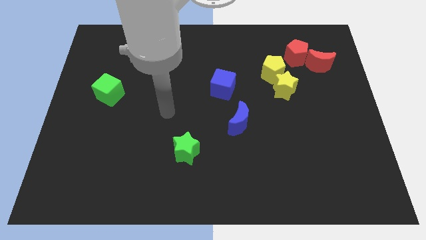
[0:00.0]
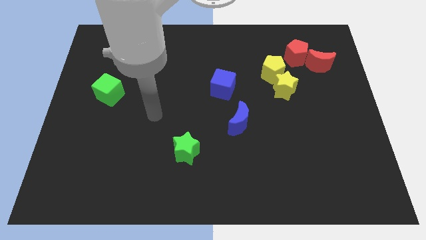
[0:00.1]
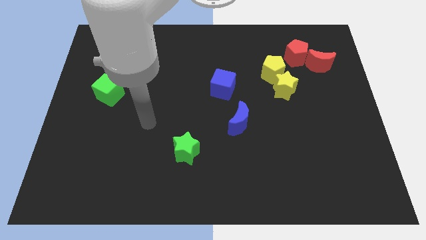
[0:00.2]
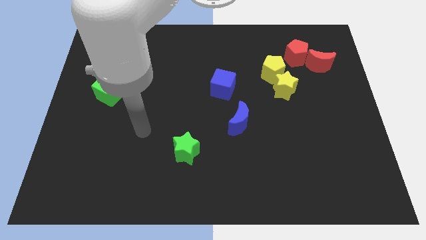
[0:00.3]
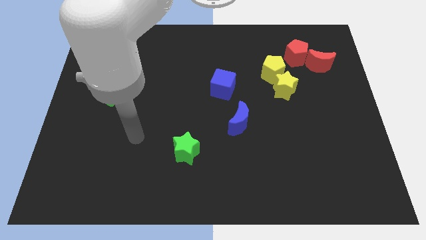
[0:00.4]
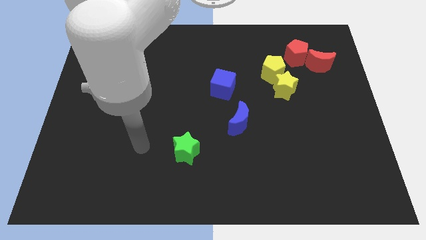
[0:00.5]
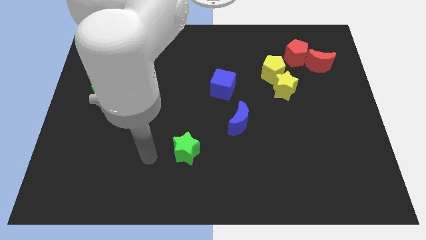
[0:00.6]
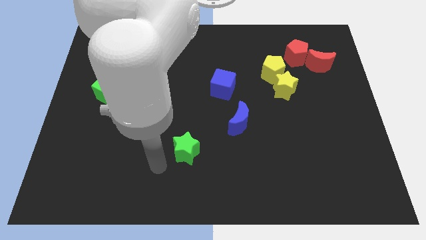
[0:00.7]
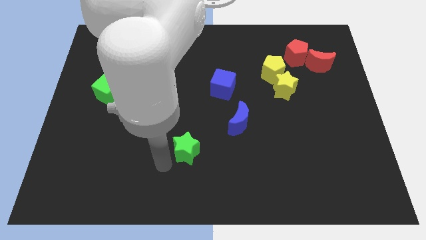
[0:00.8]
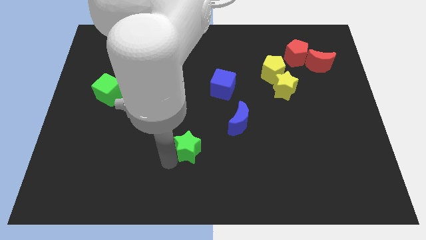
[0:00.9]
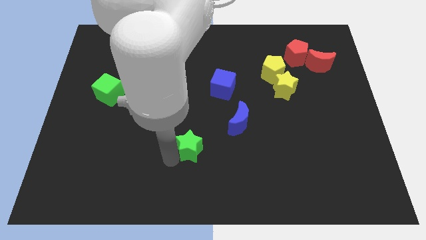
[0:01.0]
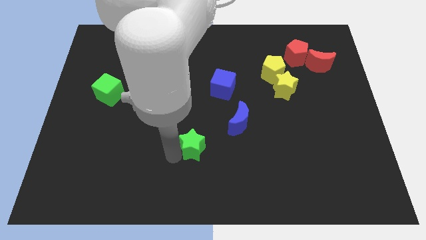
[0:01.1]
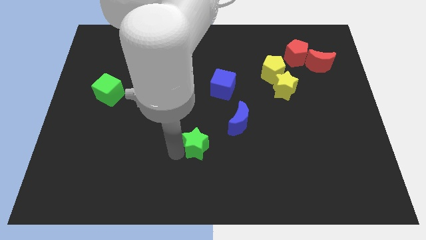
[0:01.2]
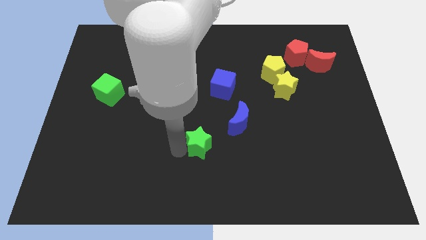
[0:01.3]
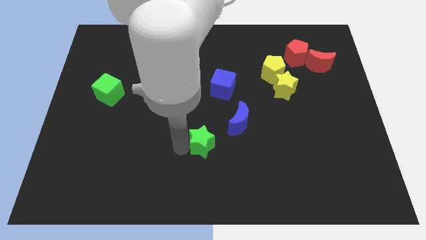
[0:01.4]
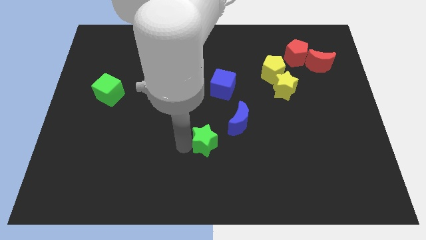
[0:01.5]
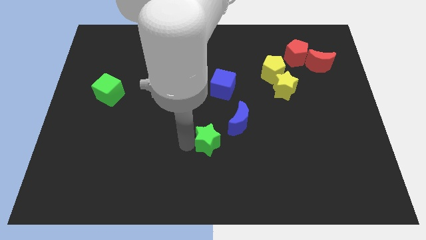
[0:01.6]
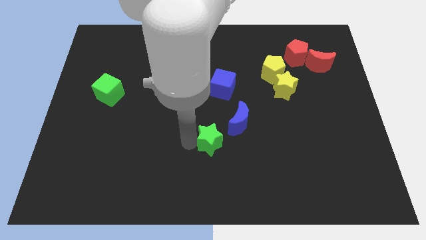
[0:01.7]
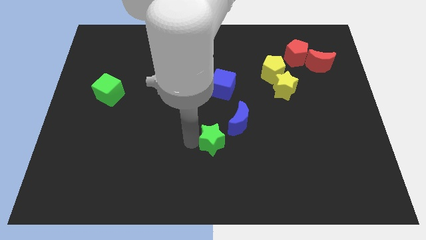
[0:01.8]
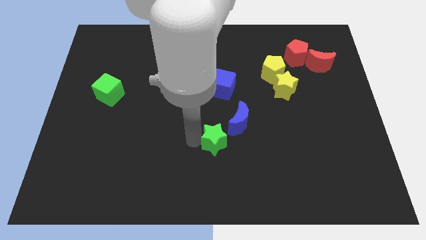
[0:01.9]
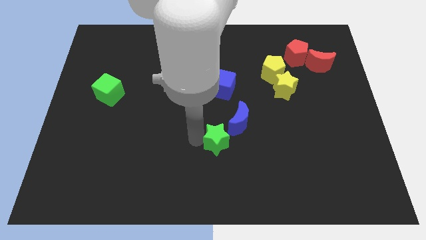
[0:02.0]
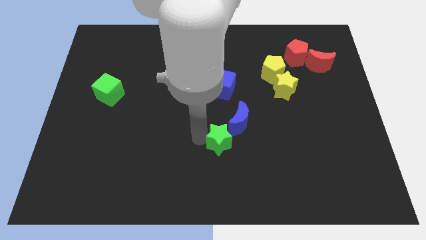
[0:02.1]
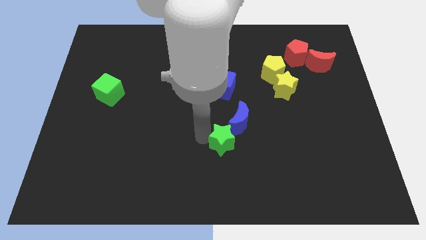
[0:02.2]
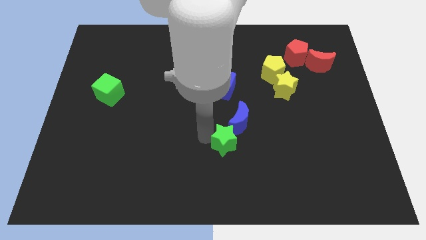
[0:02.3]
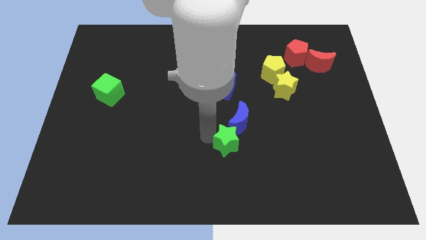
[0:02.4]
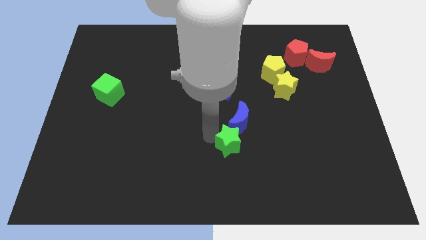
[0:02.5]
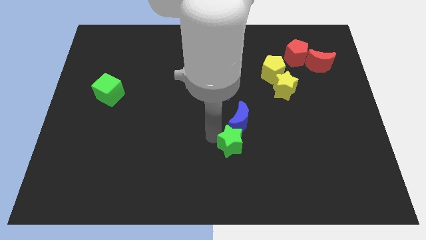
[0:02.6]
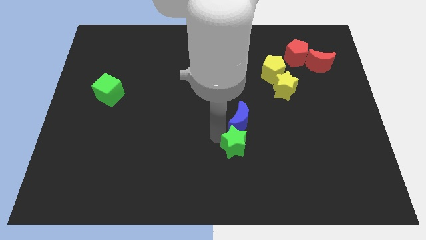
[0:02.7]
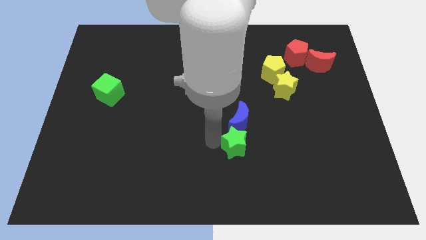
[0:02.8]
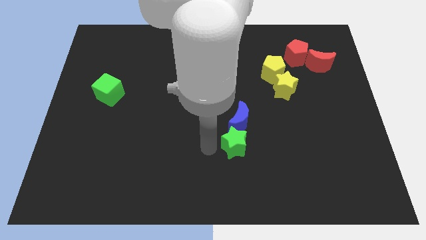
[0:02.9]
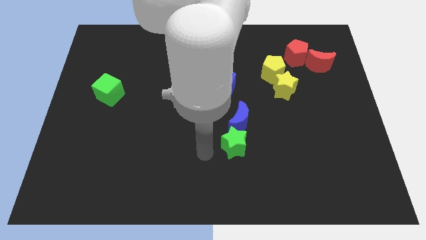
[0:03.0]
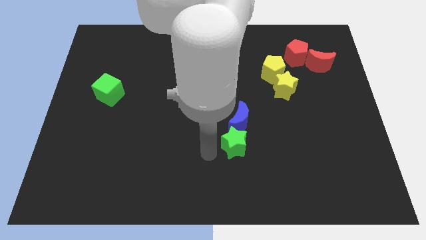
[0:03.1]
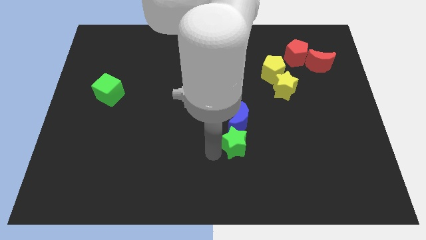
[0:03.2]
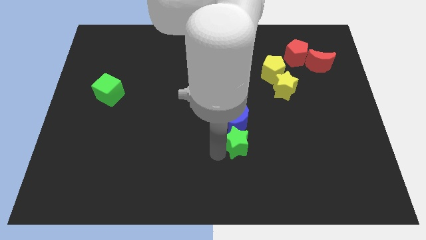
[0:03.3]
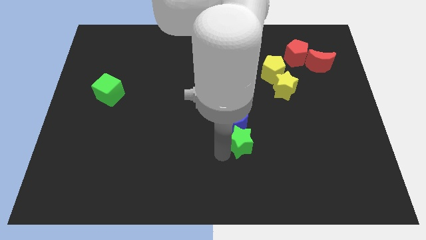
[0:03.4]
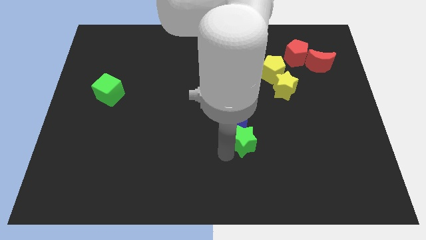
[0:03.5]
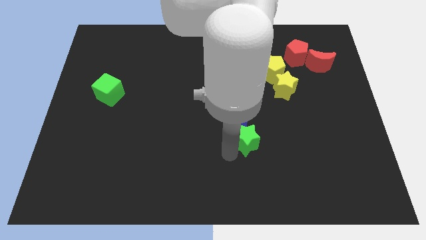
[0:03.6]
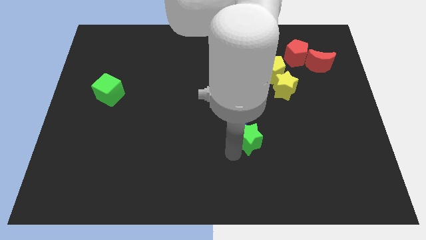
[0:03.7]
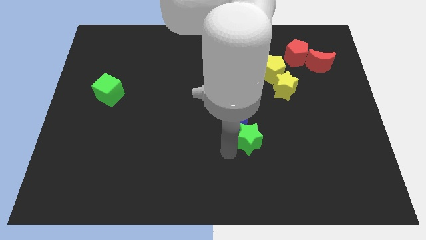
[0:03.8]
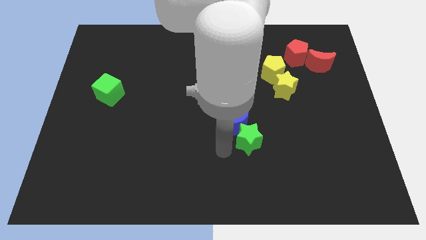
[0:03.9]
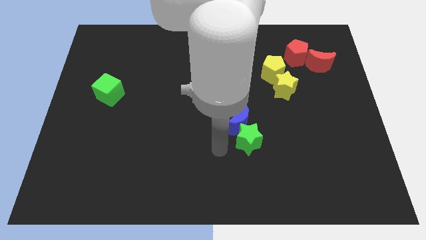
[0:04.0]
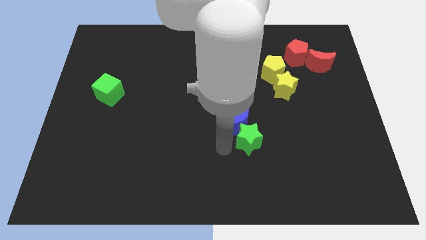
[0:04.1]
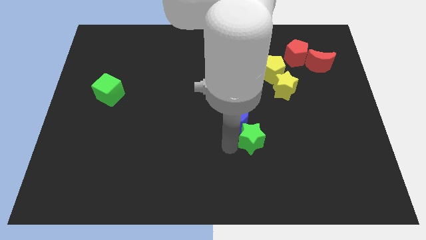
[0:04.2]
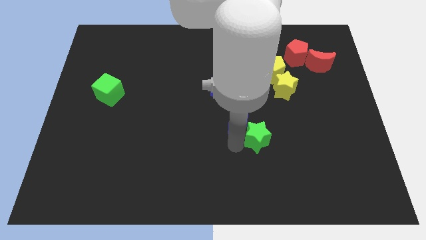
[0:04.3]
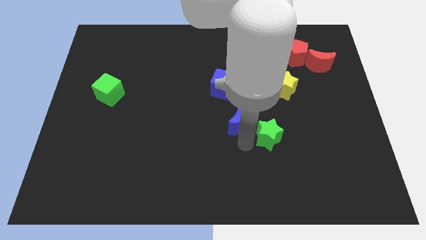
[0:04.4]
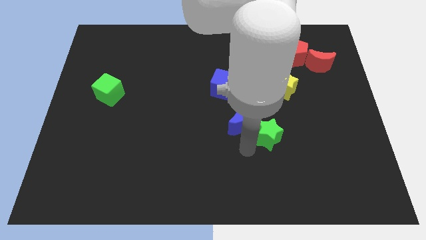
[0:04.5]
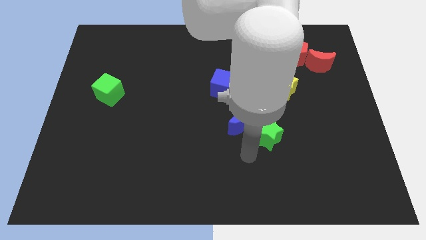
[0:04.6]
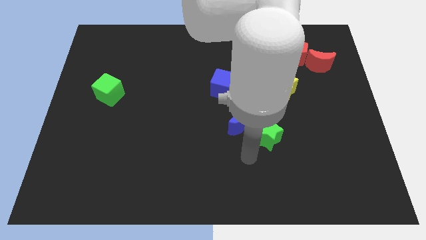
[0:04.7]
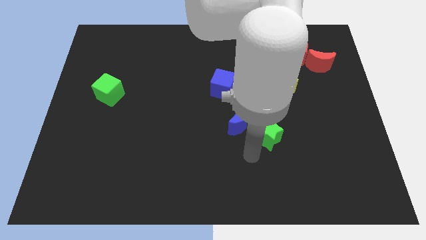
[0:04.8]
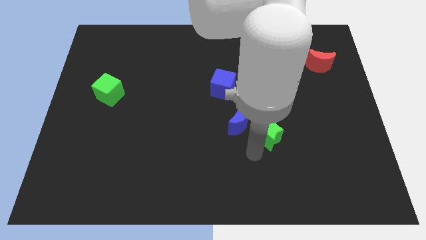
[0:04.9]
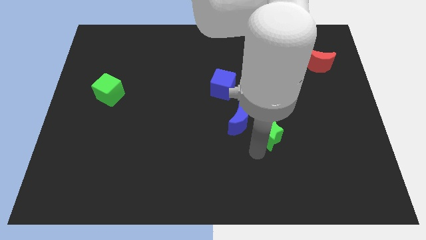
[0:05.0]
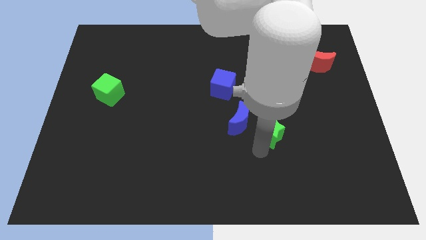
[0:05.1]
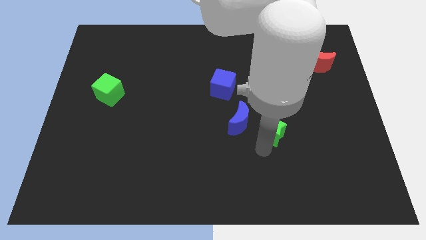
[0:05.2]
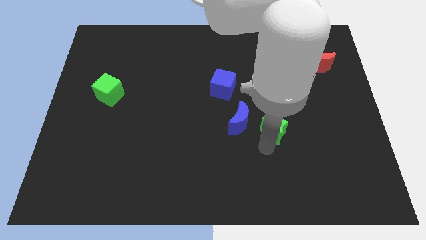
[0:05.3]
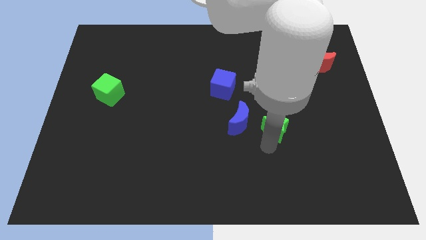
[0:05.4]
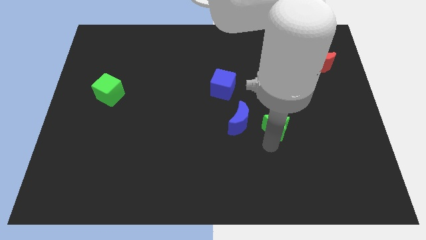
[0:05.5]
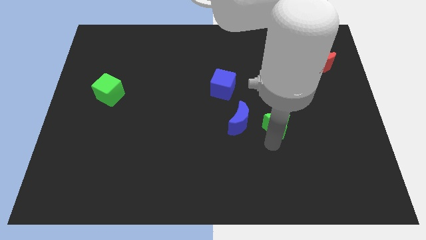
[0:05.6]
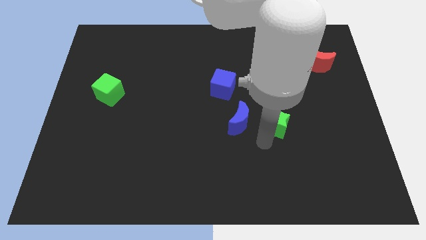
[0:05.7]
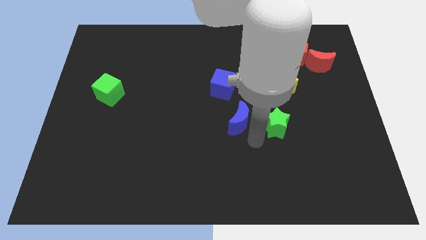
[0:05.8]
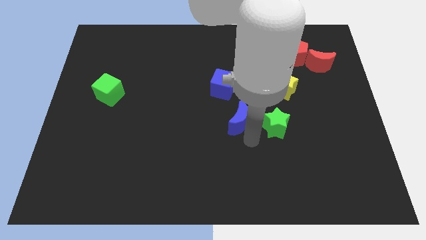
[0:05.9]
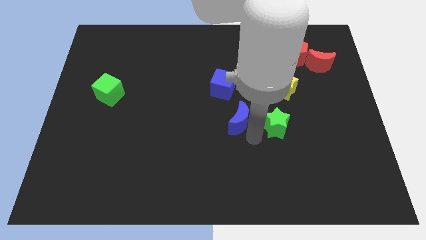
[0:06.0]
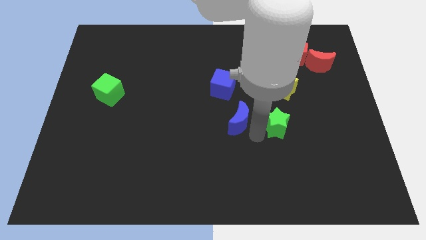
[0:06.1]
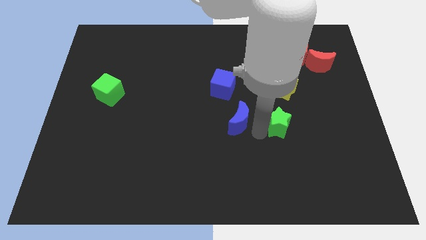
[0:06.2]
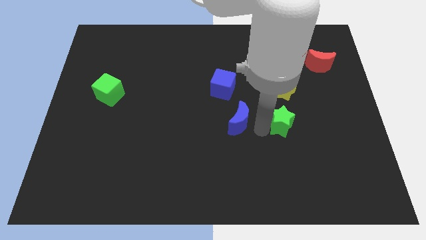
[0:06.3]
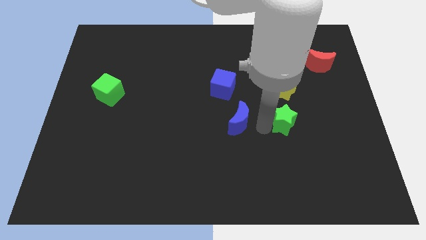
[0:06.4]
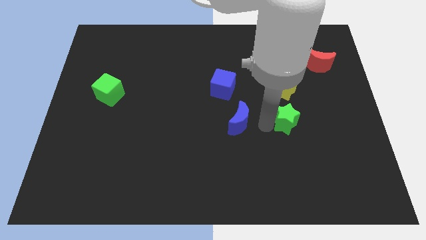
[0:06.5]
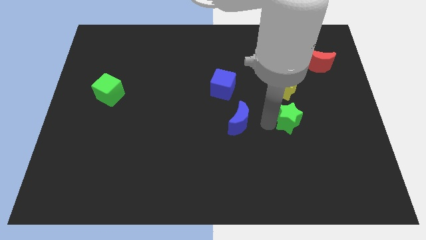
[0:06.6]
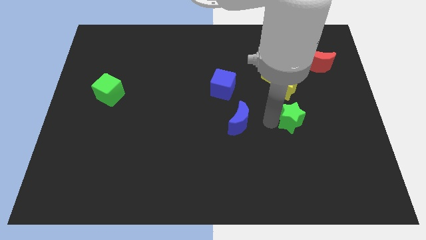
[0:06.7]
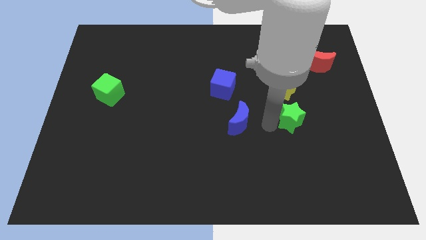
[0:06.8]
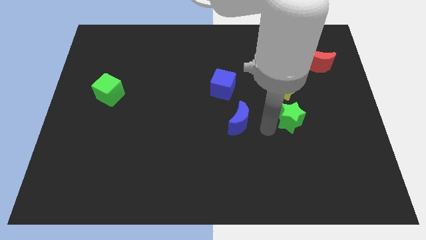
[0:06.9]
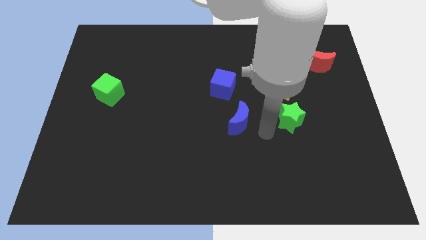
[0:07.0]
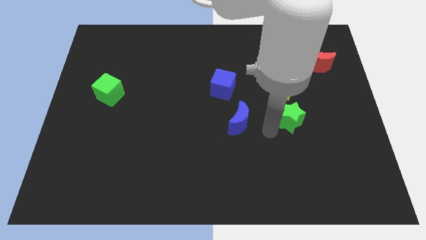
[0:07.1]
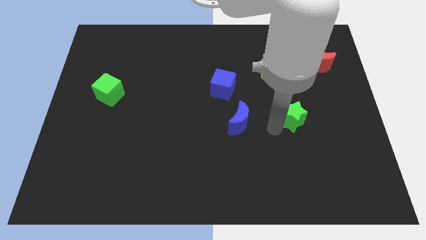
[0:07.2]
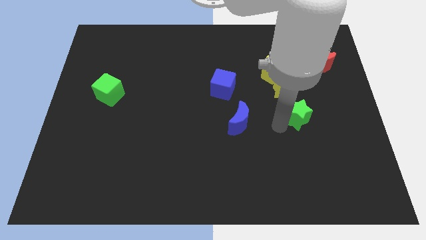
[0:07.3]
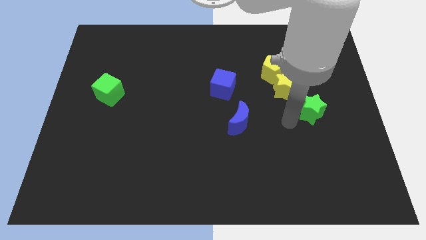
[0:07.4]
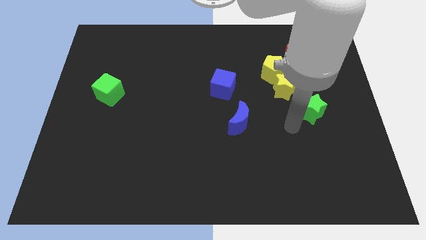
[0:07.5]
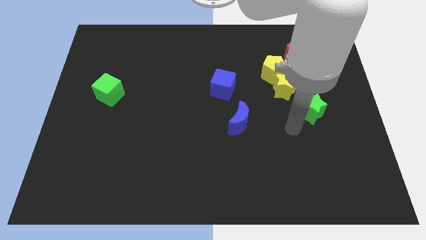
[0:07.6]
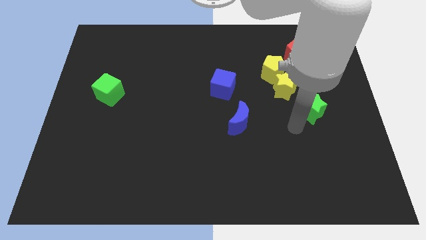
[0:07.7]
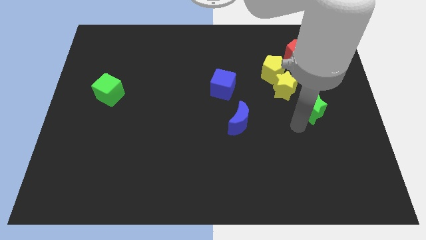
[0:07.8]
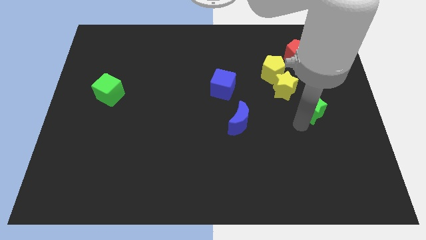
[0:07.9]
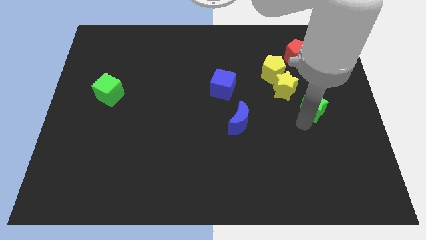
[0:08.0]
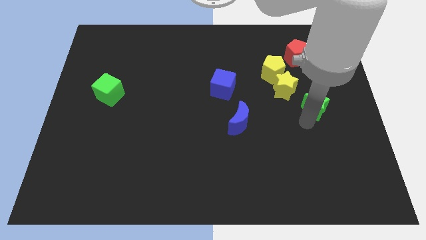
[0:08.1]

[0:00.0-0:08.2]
put the green star below the red moon
